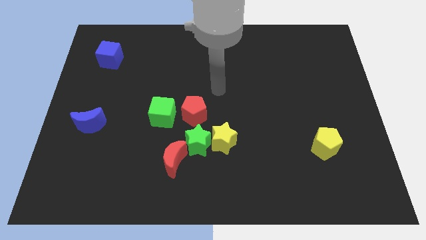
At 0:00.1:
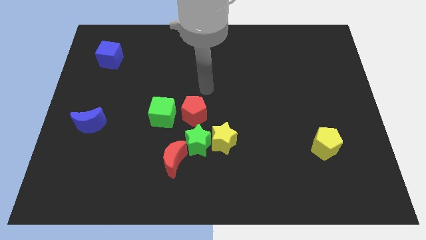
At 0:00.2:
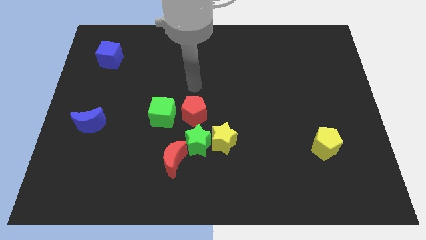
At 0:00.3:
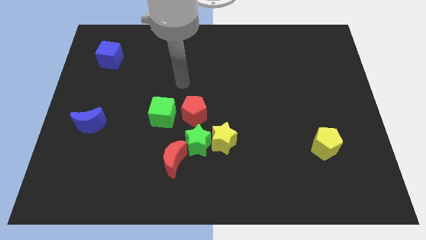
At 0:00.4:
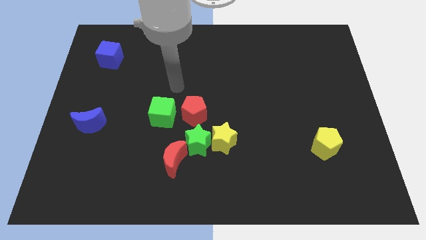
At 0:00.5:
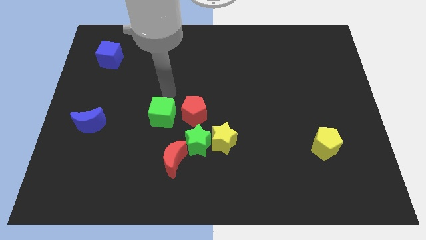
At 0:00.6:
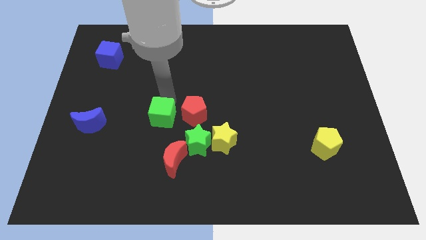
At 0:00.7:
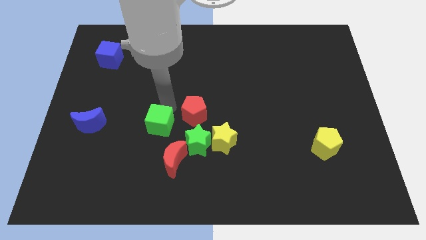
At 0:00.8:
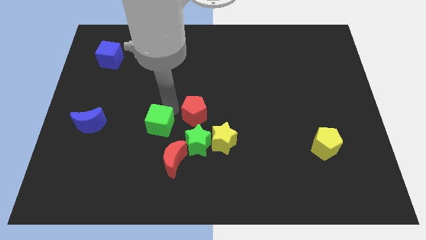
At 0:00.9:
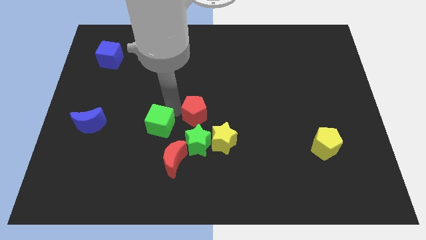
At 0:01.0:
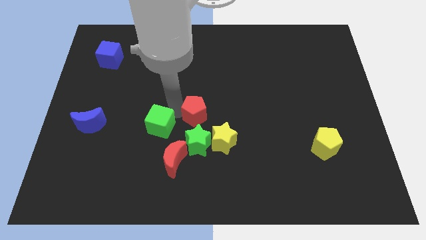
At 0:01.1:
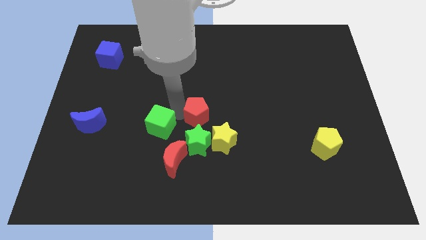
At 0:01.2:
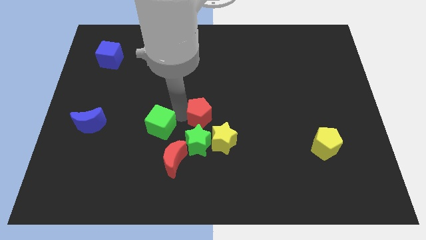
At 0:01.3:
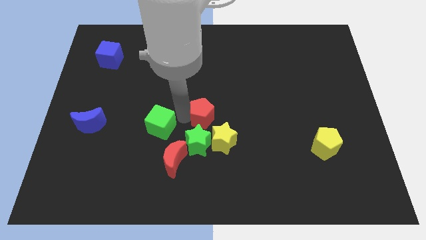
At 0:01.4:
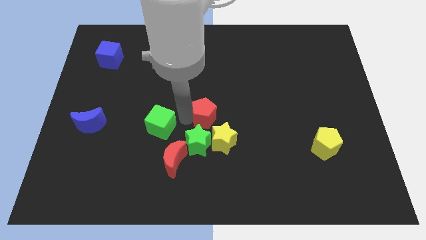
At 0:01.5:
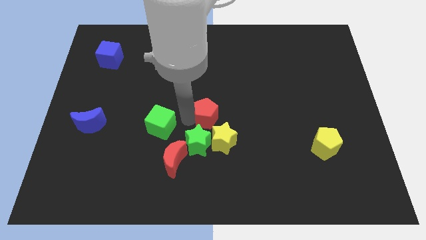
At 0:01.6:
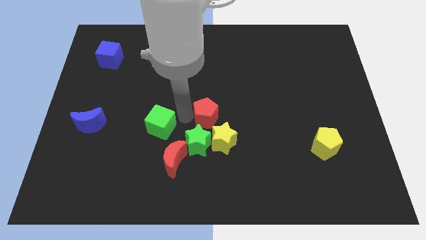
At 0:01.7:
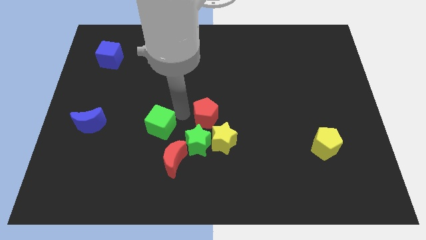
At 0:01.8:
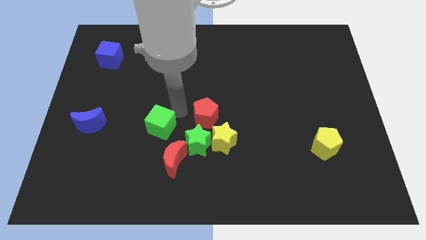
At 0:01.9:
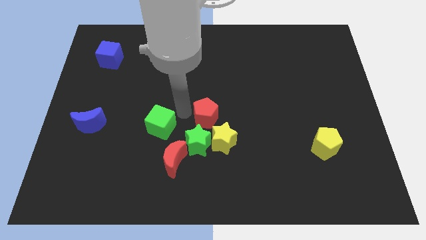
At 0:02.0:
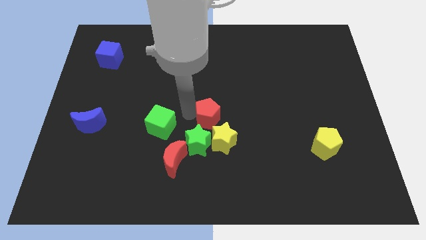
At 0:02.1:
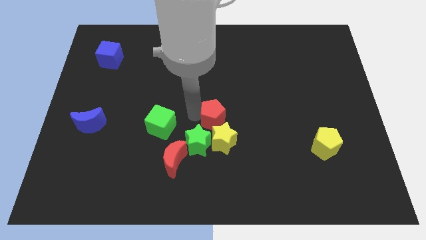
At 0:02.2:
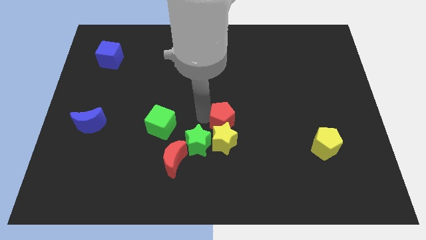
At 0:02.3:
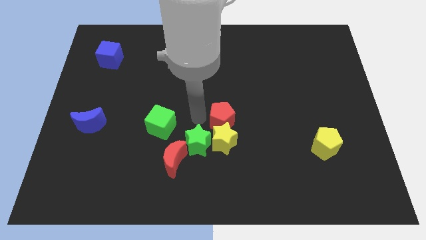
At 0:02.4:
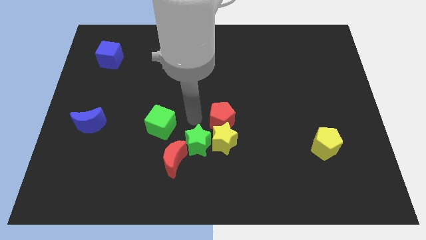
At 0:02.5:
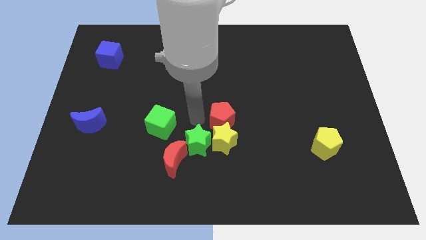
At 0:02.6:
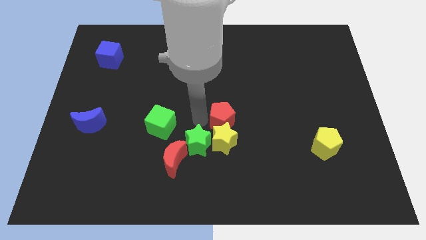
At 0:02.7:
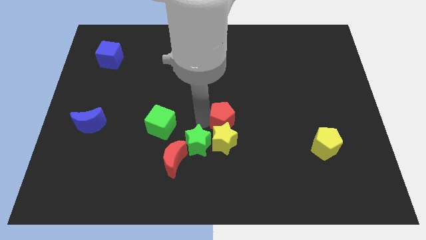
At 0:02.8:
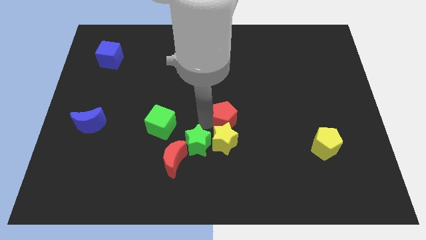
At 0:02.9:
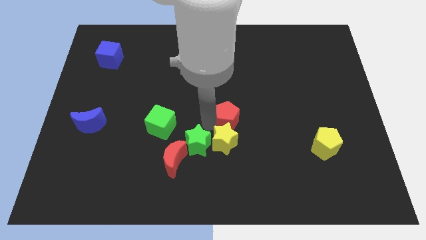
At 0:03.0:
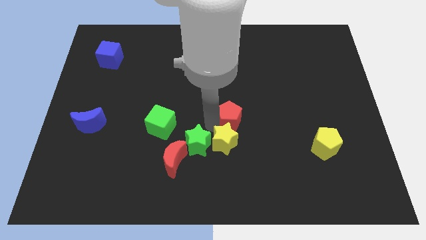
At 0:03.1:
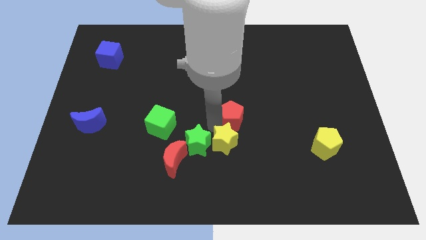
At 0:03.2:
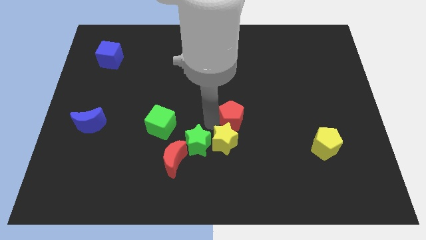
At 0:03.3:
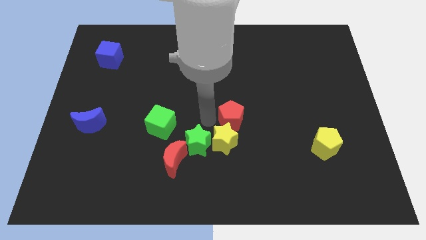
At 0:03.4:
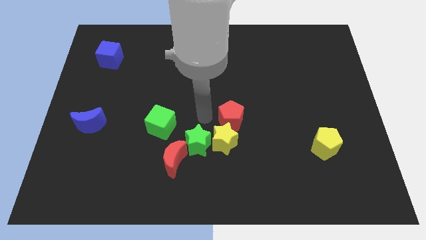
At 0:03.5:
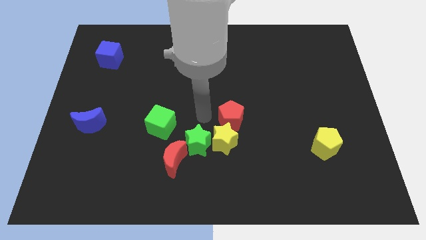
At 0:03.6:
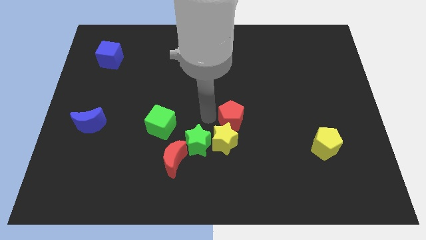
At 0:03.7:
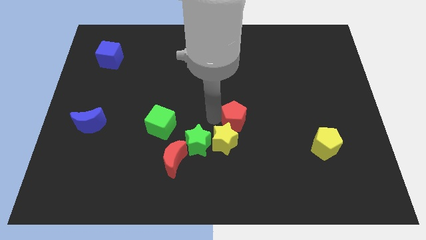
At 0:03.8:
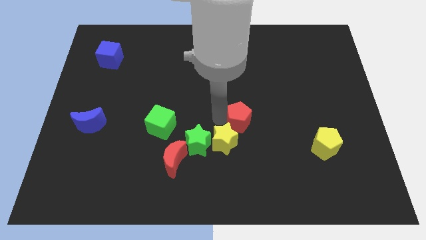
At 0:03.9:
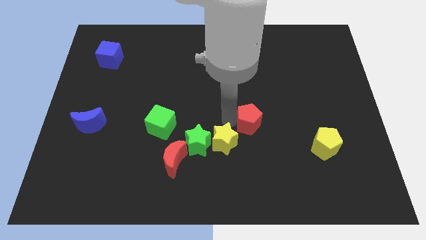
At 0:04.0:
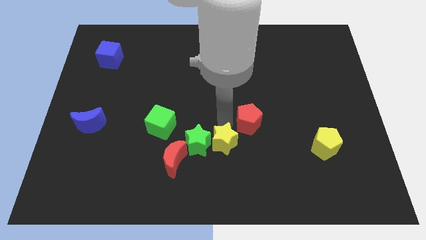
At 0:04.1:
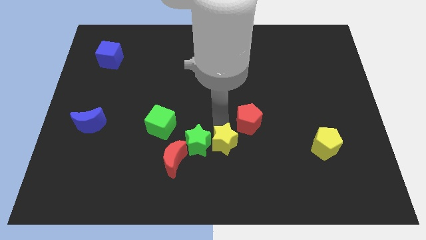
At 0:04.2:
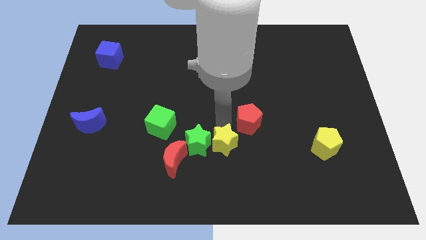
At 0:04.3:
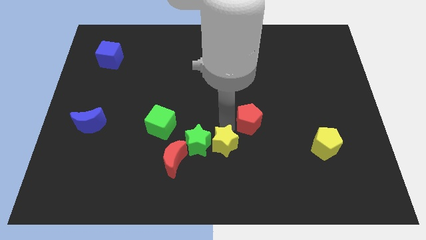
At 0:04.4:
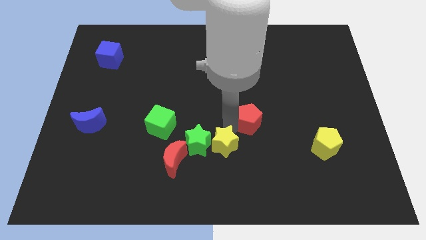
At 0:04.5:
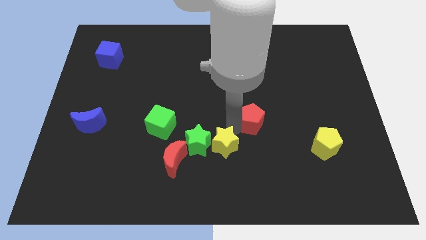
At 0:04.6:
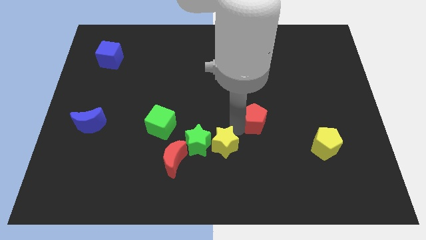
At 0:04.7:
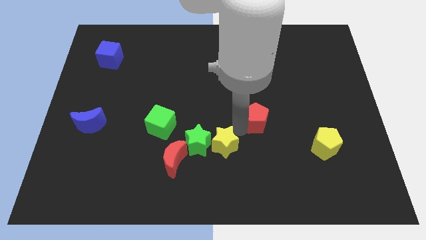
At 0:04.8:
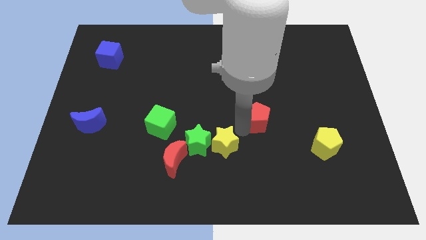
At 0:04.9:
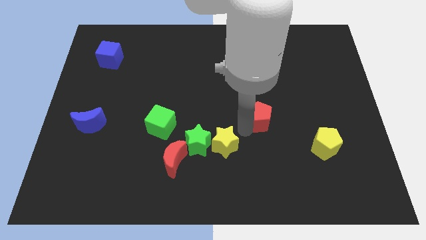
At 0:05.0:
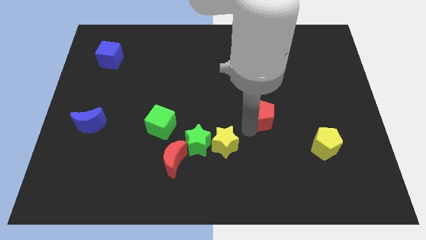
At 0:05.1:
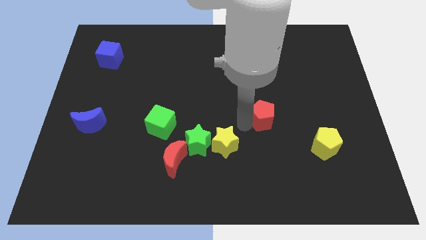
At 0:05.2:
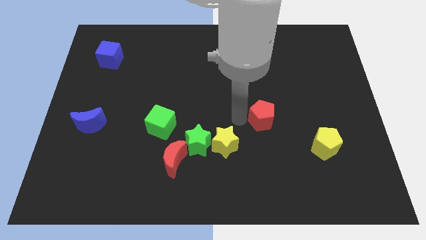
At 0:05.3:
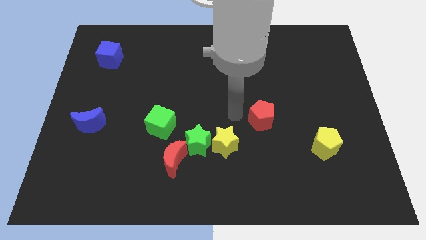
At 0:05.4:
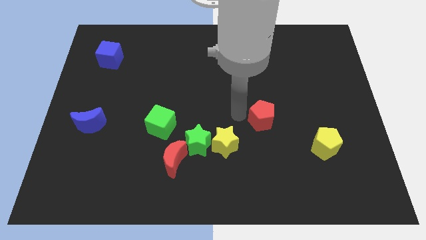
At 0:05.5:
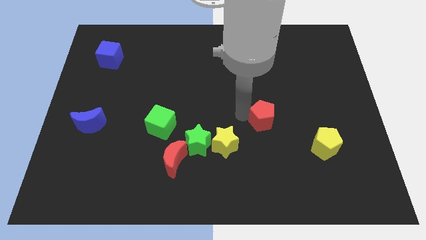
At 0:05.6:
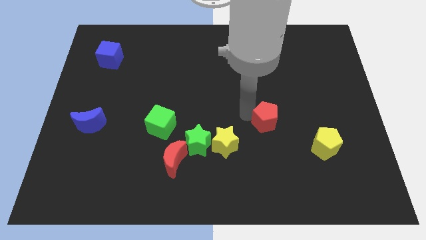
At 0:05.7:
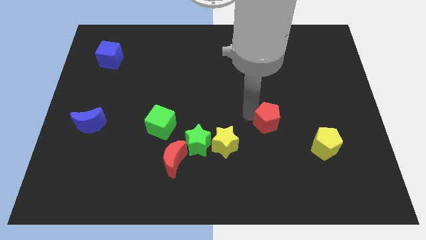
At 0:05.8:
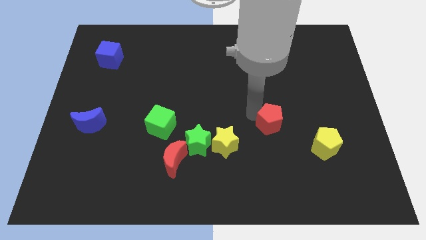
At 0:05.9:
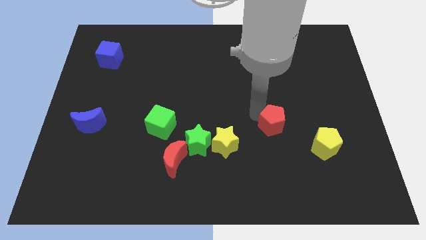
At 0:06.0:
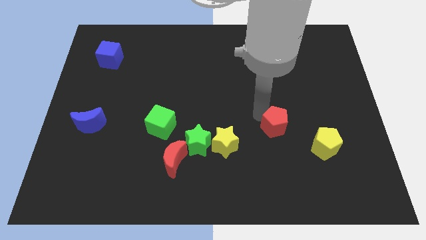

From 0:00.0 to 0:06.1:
push the red pentagon diagonally up and to the left of the yellow pentagon

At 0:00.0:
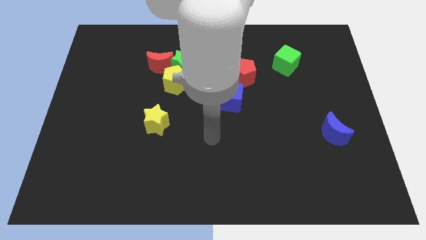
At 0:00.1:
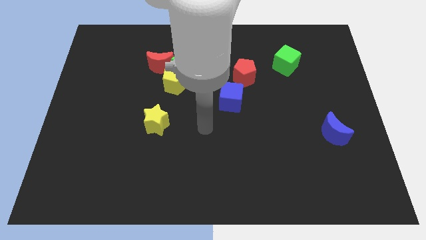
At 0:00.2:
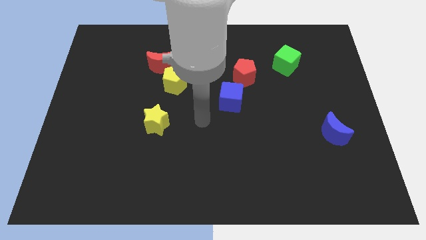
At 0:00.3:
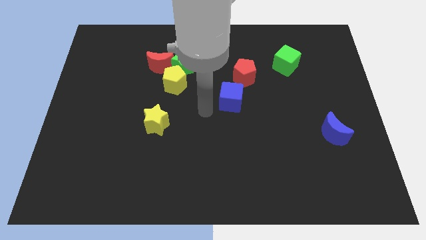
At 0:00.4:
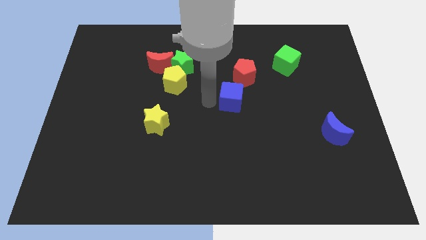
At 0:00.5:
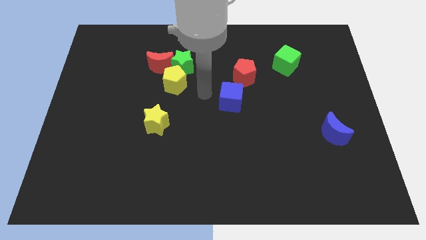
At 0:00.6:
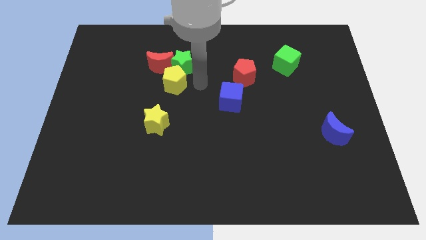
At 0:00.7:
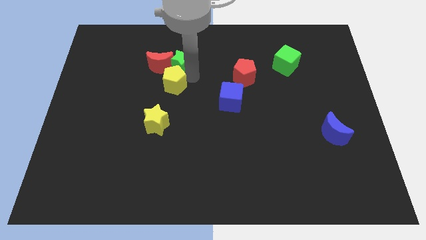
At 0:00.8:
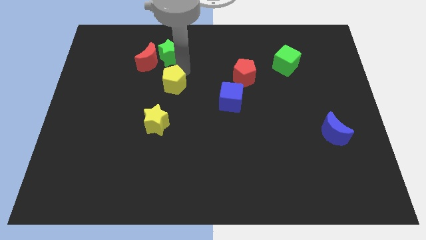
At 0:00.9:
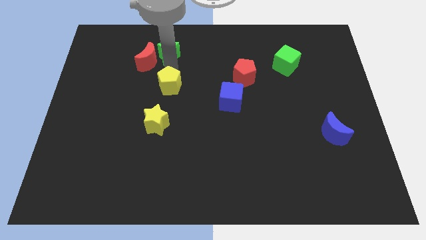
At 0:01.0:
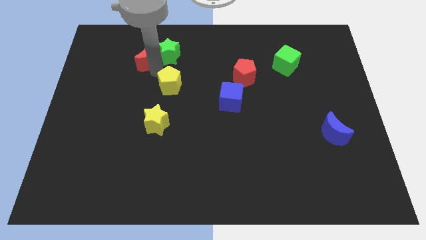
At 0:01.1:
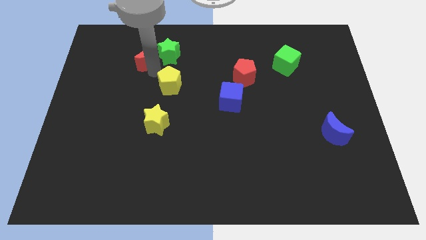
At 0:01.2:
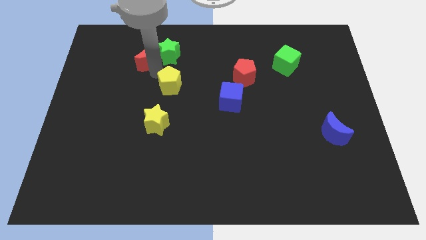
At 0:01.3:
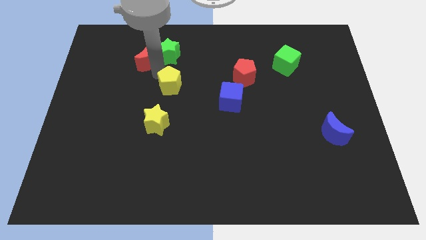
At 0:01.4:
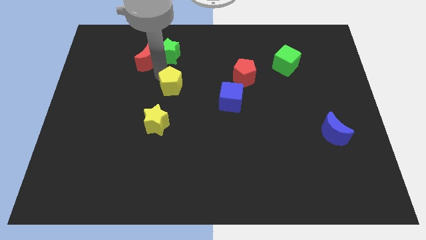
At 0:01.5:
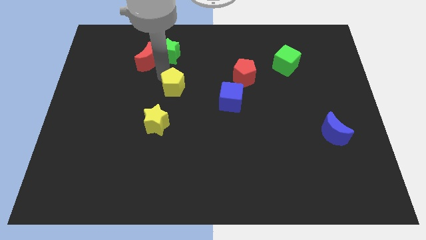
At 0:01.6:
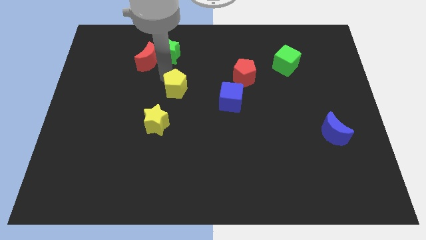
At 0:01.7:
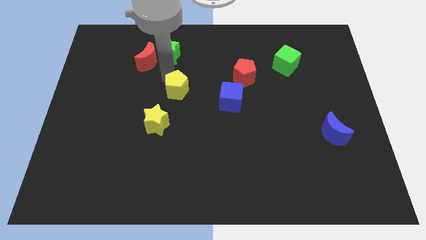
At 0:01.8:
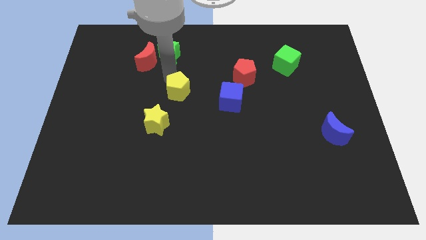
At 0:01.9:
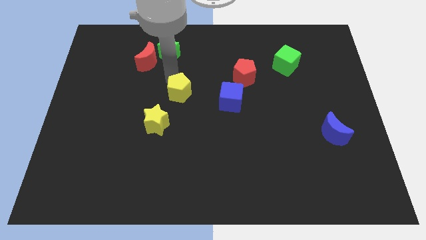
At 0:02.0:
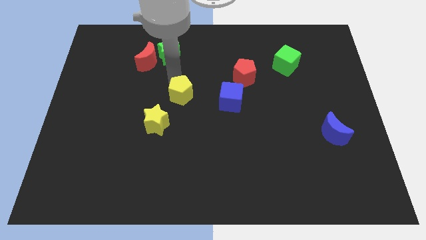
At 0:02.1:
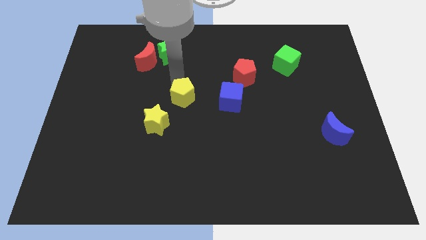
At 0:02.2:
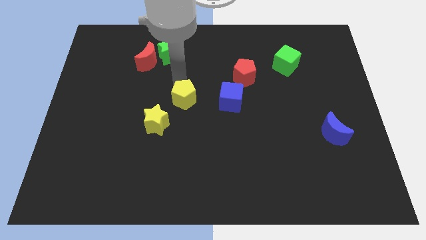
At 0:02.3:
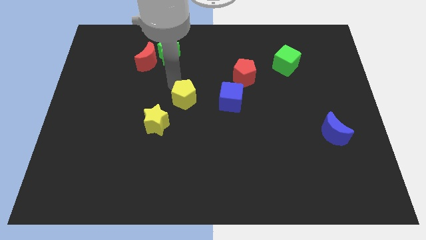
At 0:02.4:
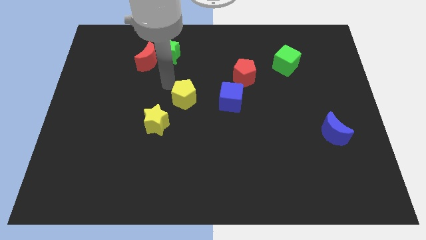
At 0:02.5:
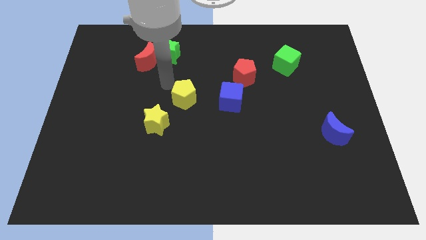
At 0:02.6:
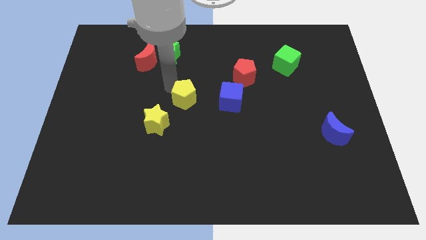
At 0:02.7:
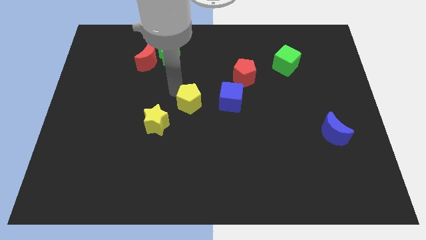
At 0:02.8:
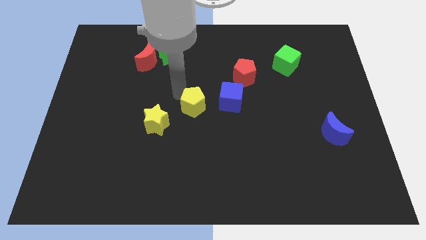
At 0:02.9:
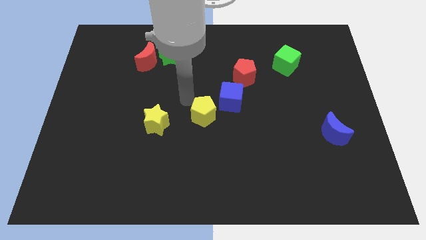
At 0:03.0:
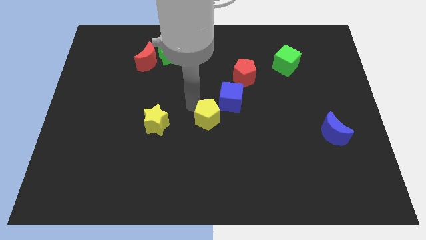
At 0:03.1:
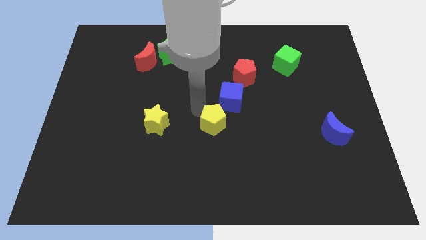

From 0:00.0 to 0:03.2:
put the yellow pentagon below the blue cube
